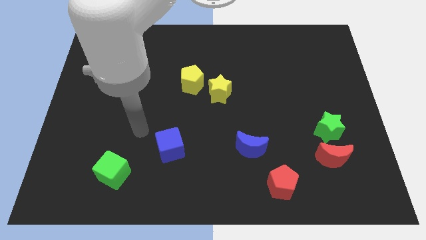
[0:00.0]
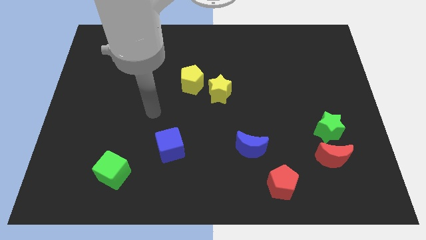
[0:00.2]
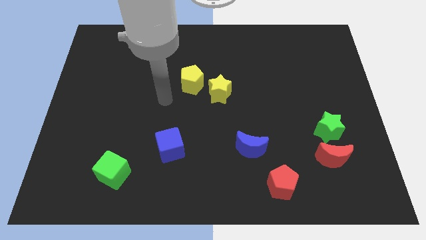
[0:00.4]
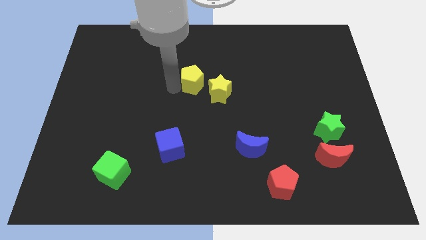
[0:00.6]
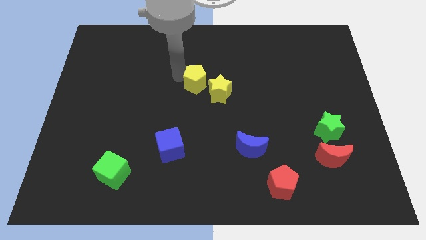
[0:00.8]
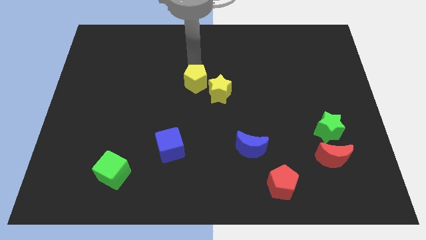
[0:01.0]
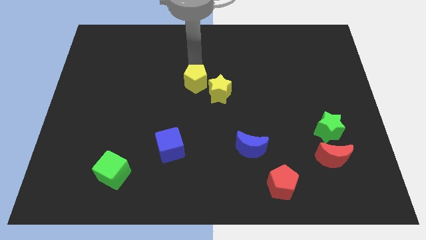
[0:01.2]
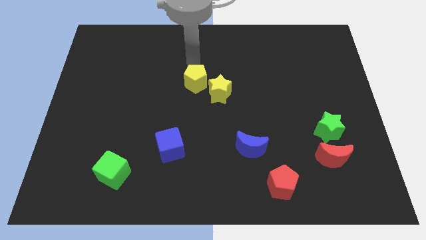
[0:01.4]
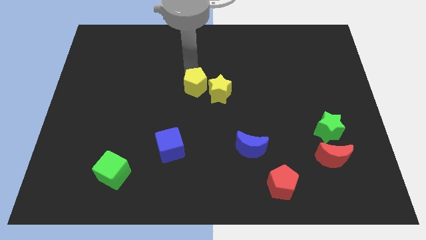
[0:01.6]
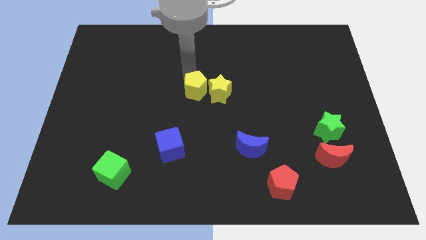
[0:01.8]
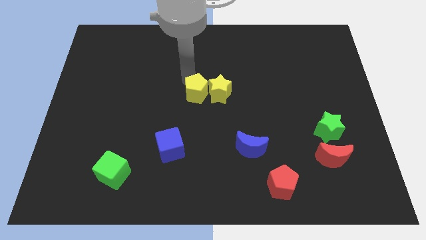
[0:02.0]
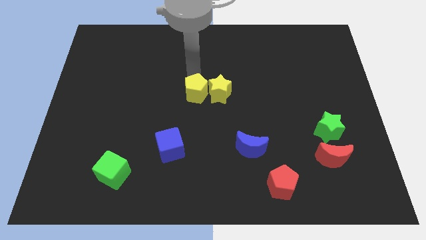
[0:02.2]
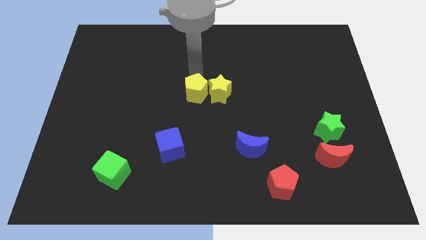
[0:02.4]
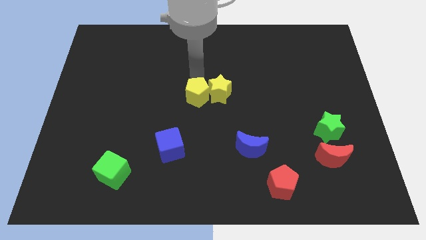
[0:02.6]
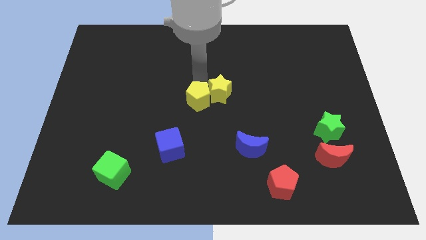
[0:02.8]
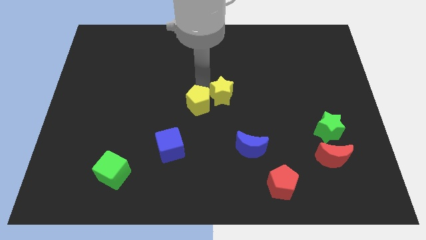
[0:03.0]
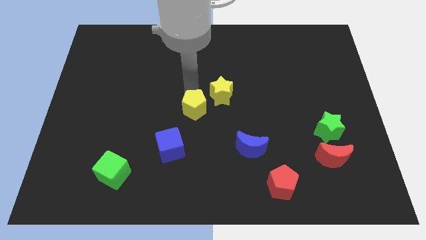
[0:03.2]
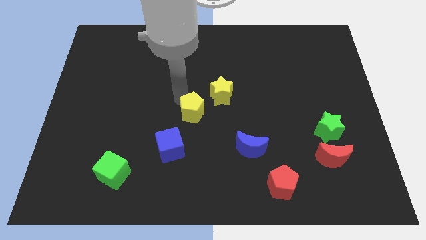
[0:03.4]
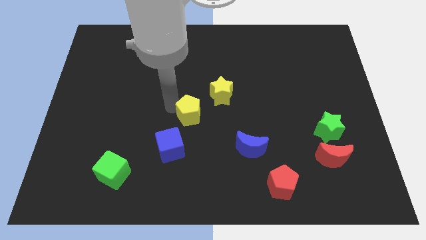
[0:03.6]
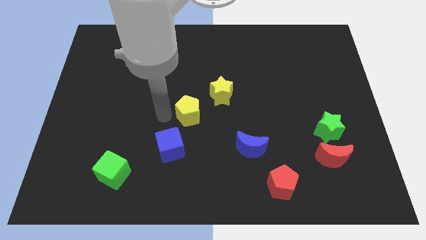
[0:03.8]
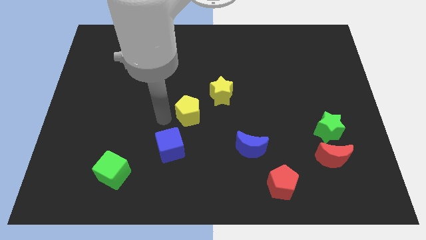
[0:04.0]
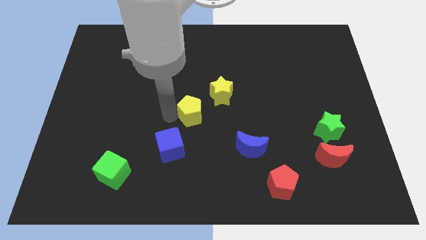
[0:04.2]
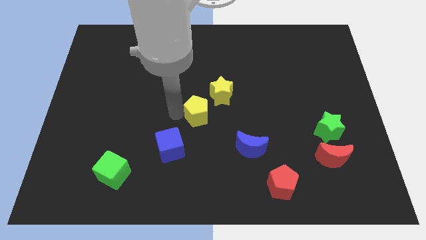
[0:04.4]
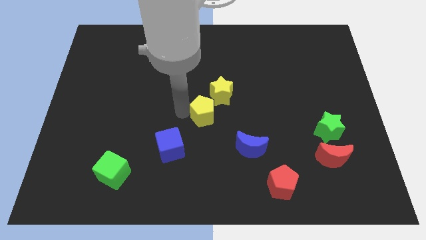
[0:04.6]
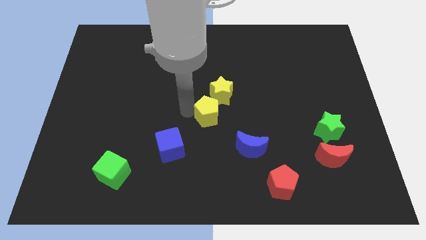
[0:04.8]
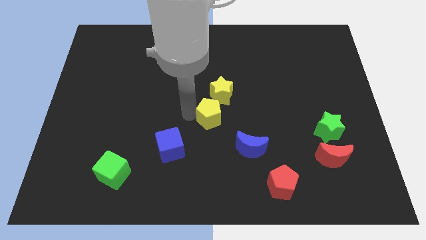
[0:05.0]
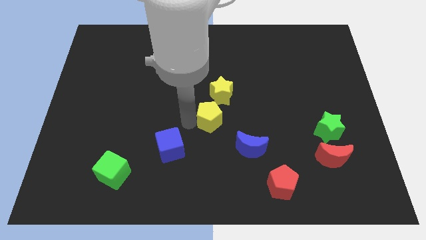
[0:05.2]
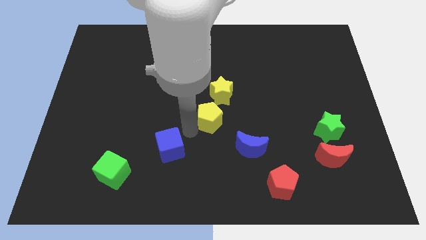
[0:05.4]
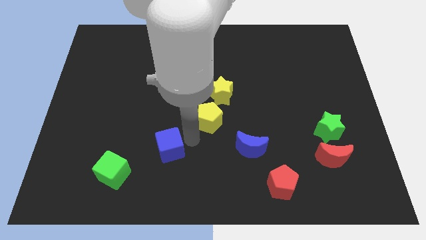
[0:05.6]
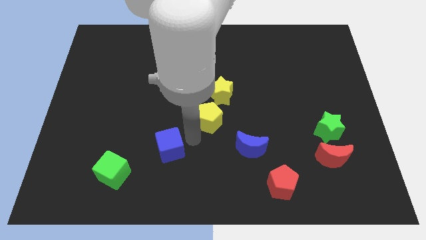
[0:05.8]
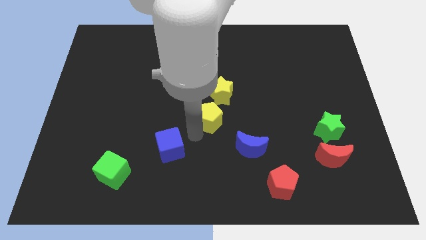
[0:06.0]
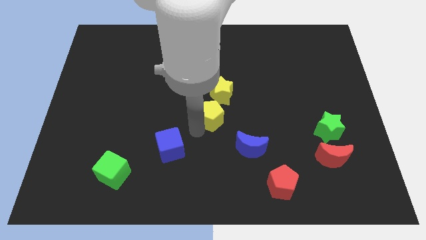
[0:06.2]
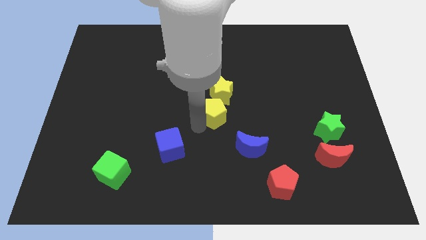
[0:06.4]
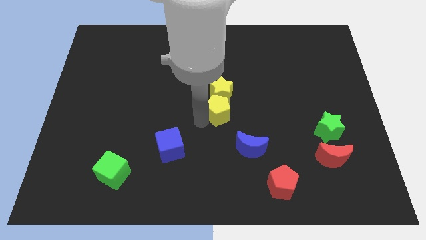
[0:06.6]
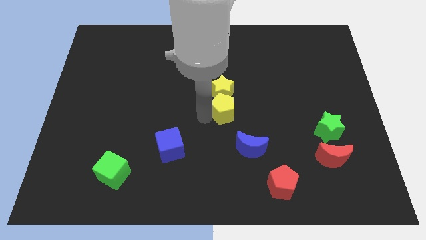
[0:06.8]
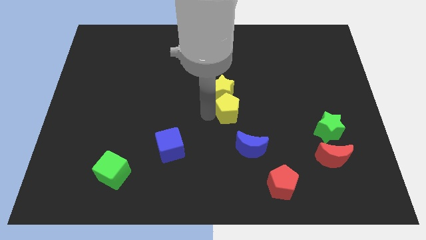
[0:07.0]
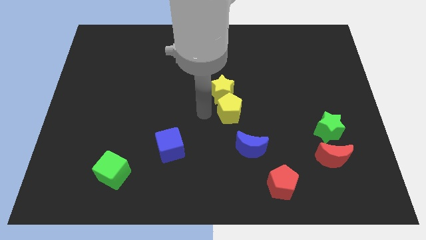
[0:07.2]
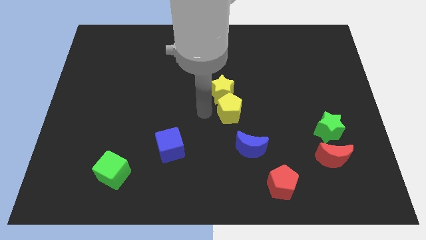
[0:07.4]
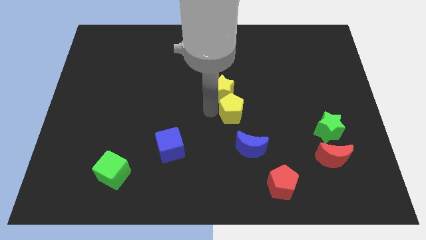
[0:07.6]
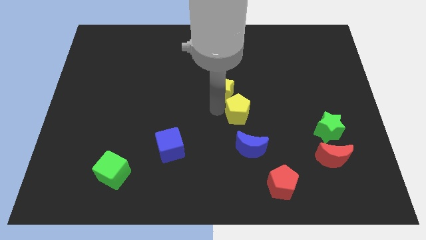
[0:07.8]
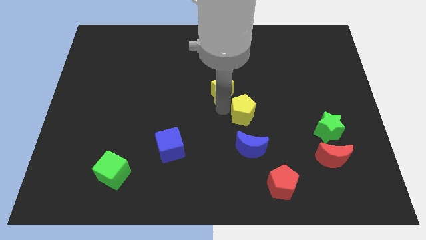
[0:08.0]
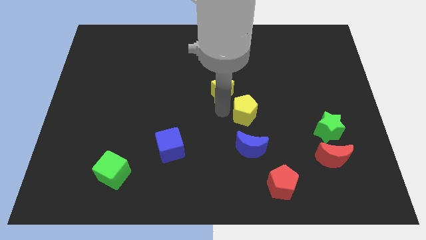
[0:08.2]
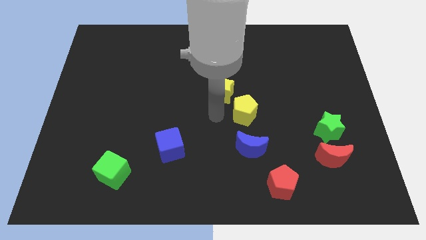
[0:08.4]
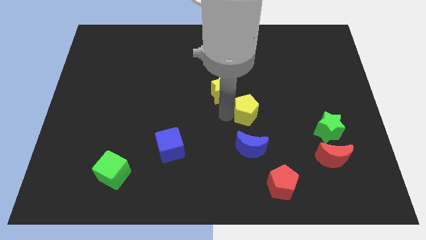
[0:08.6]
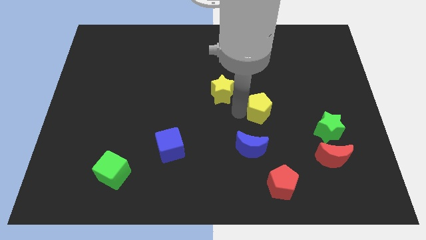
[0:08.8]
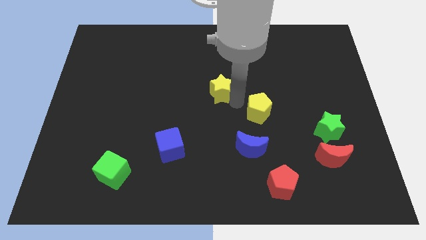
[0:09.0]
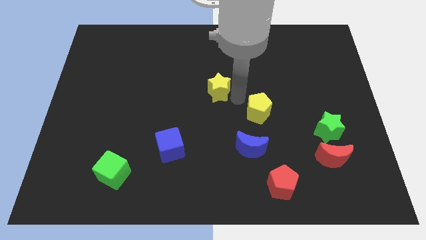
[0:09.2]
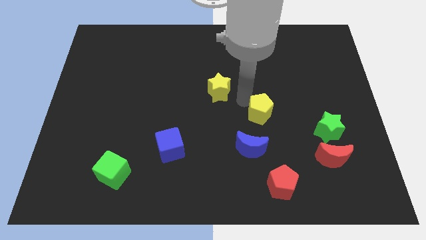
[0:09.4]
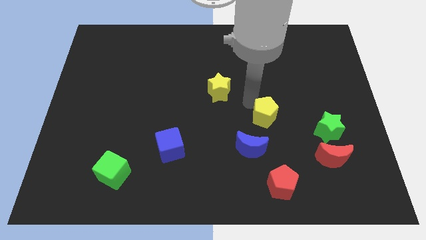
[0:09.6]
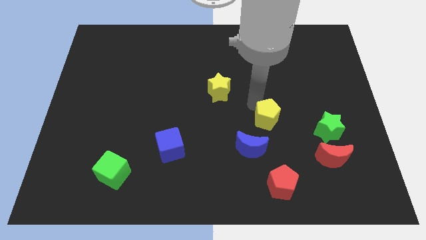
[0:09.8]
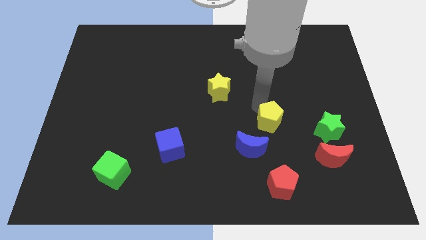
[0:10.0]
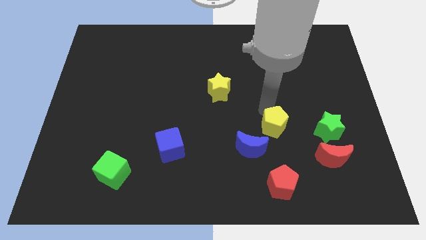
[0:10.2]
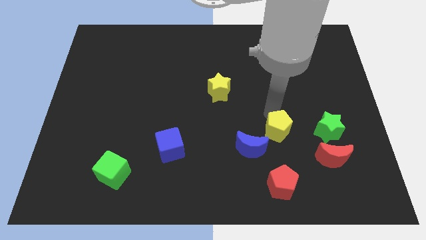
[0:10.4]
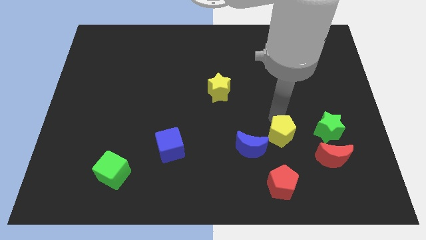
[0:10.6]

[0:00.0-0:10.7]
move the yellow pentagon to the top left of the red moon

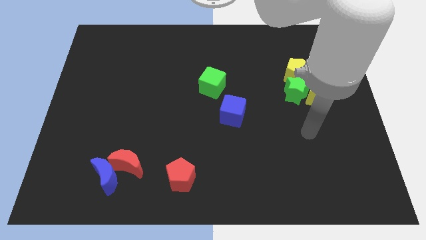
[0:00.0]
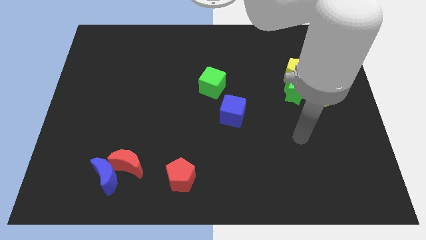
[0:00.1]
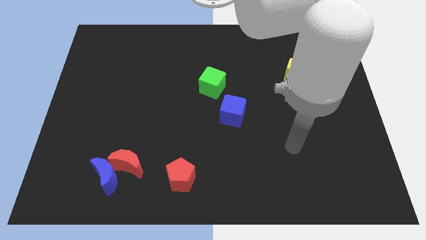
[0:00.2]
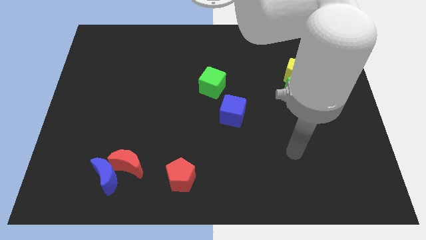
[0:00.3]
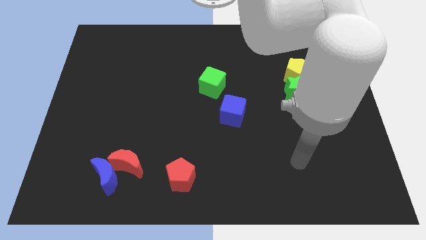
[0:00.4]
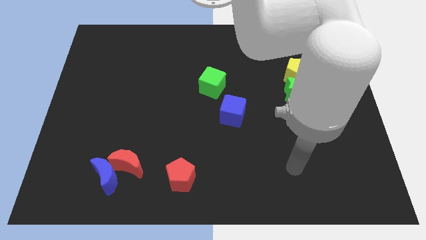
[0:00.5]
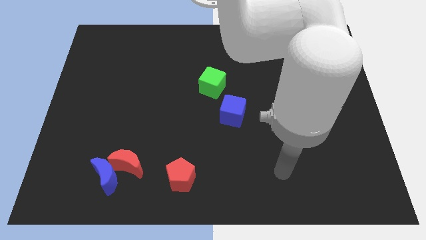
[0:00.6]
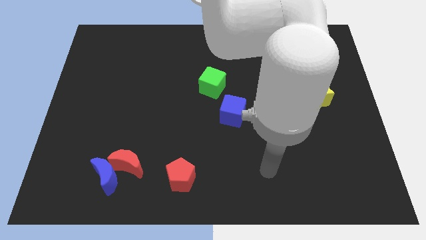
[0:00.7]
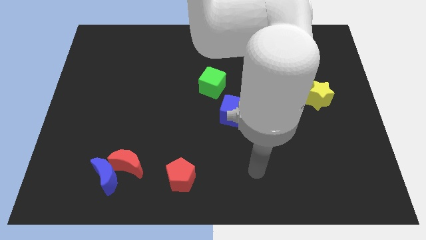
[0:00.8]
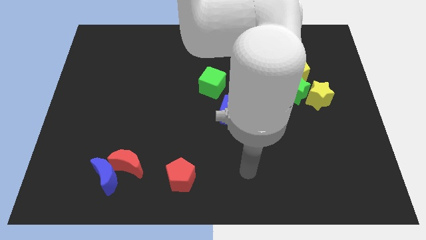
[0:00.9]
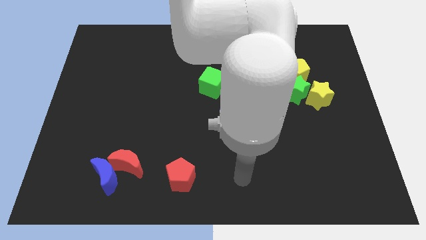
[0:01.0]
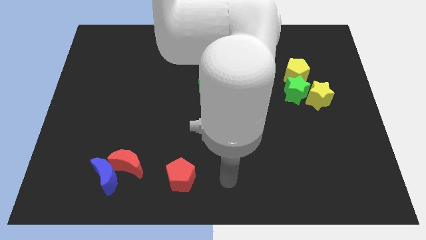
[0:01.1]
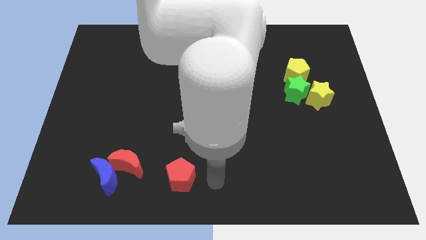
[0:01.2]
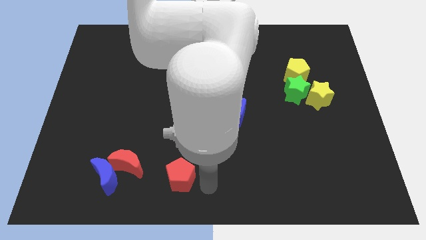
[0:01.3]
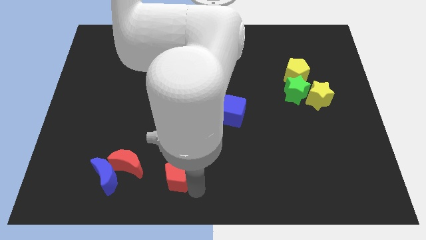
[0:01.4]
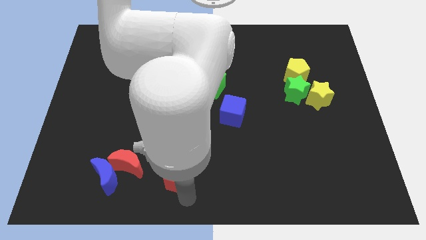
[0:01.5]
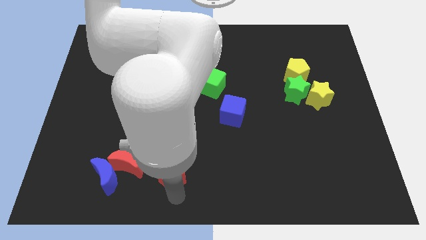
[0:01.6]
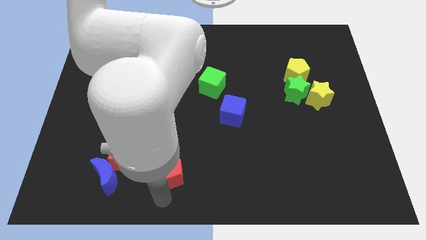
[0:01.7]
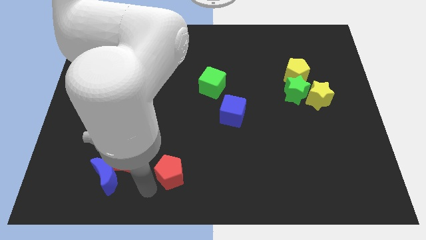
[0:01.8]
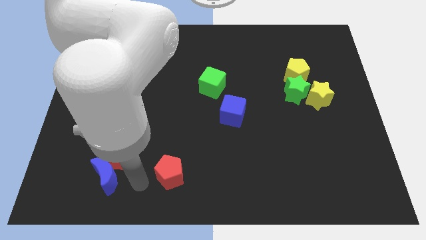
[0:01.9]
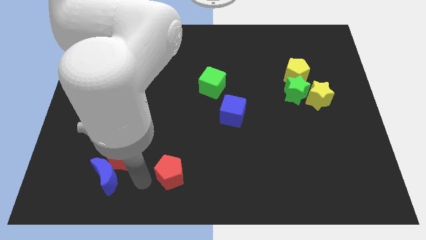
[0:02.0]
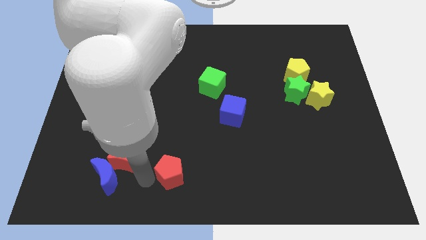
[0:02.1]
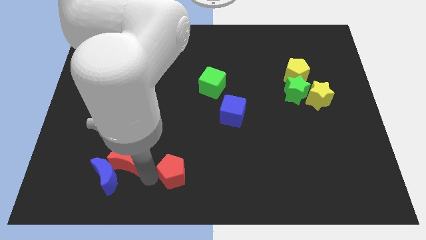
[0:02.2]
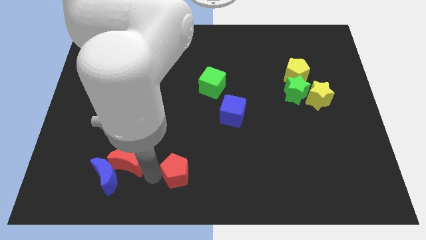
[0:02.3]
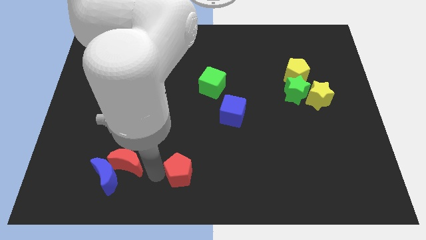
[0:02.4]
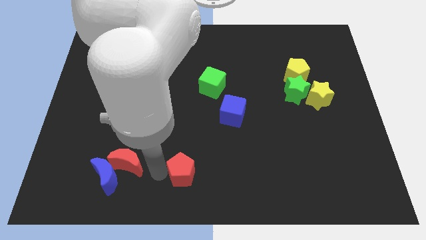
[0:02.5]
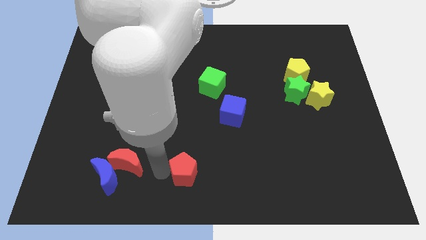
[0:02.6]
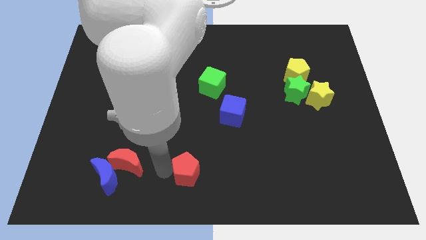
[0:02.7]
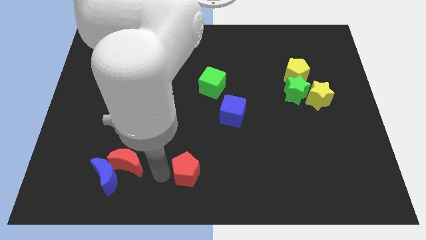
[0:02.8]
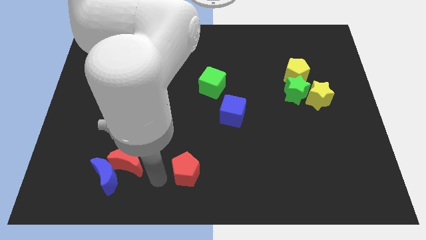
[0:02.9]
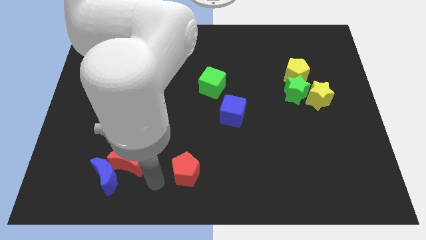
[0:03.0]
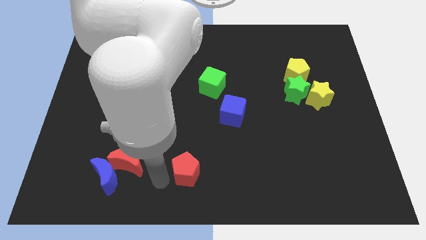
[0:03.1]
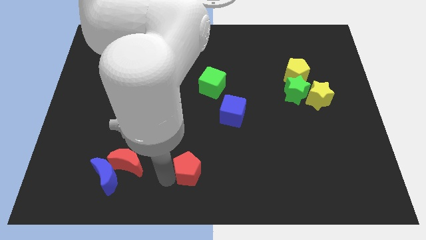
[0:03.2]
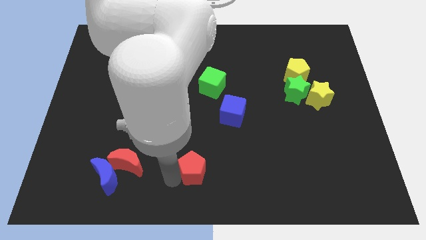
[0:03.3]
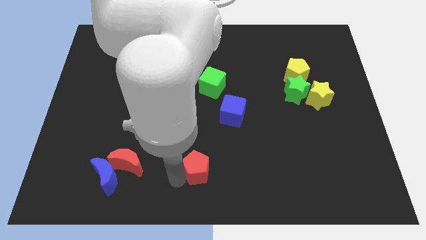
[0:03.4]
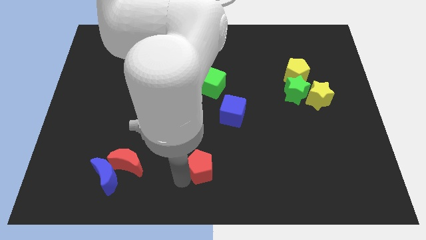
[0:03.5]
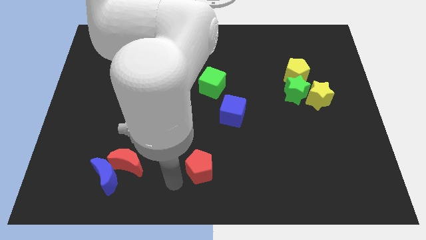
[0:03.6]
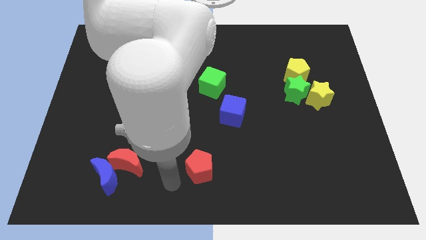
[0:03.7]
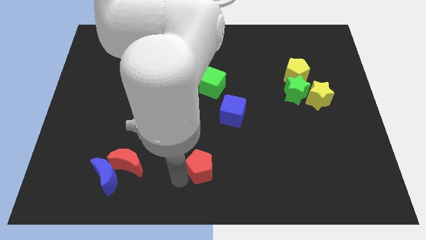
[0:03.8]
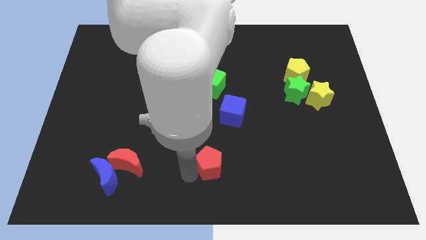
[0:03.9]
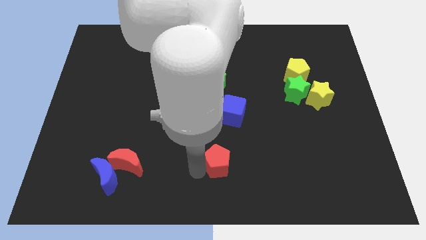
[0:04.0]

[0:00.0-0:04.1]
slide the red pentagon to the bottom of the blue cube
